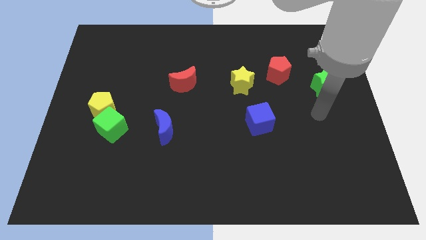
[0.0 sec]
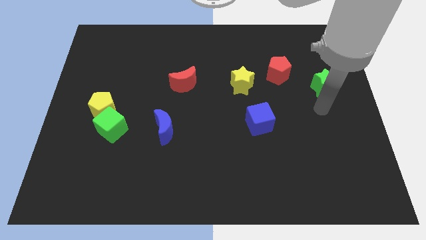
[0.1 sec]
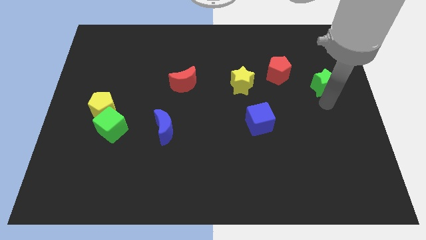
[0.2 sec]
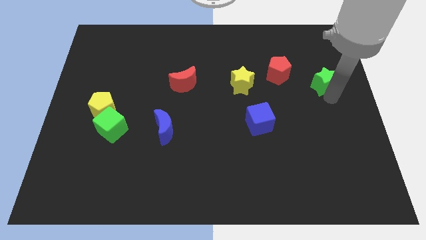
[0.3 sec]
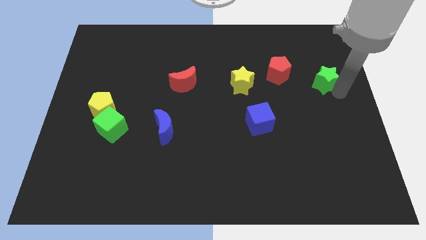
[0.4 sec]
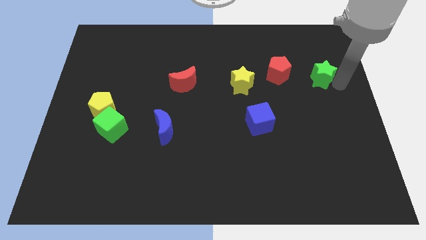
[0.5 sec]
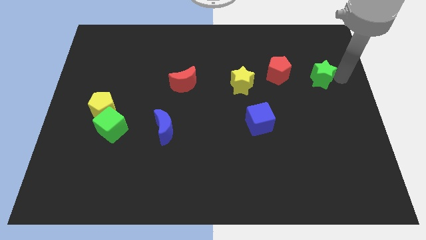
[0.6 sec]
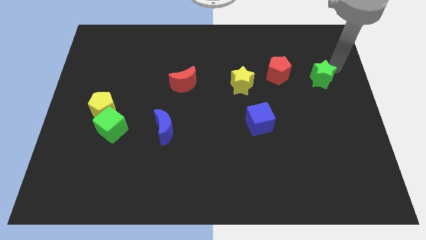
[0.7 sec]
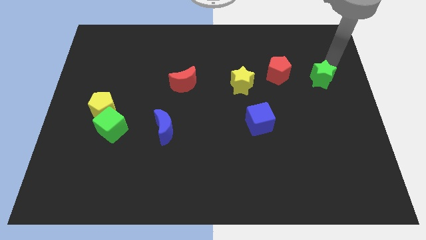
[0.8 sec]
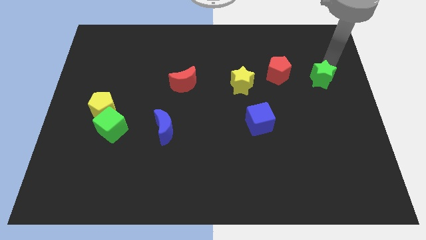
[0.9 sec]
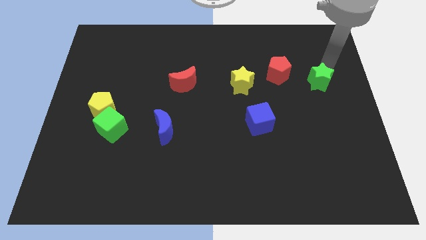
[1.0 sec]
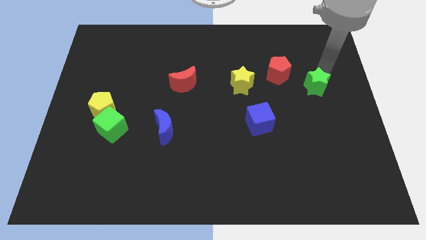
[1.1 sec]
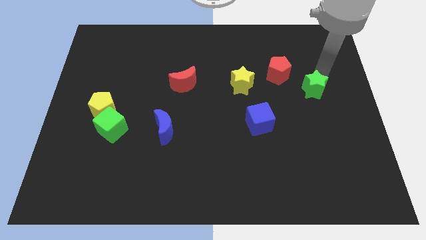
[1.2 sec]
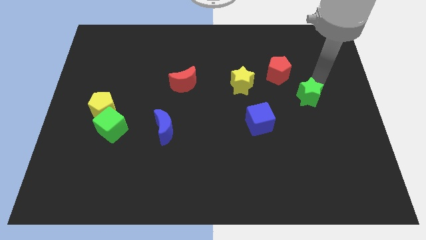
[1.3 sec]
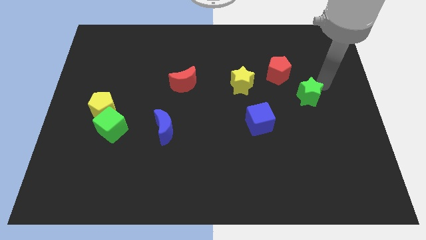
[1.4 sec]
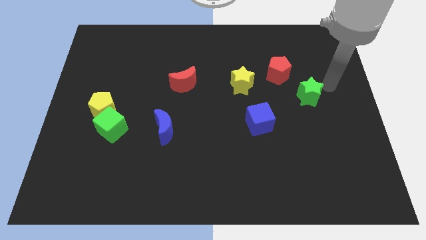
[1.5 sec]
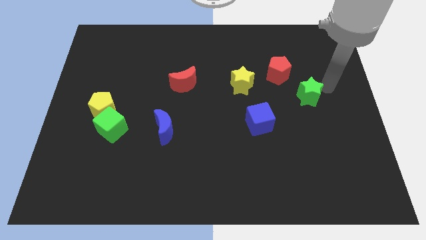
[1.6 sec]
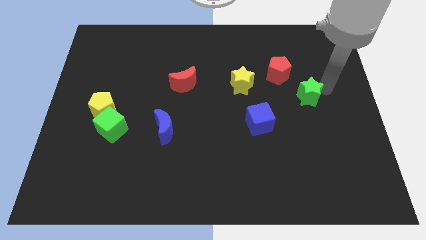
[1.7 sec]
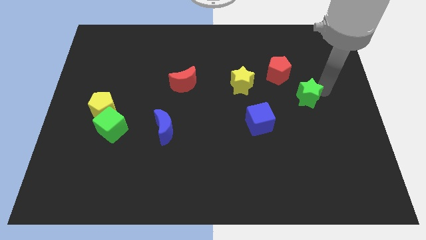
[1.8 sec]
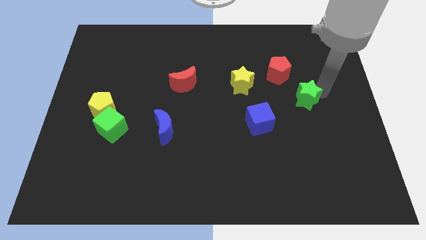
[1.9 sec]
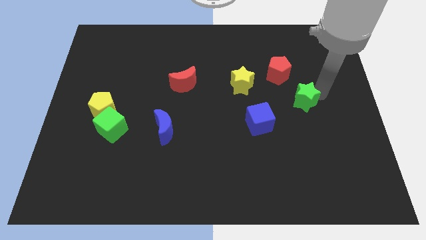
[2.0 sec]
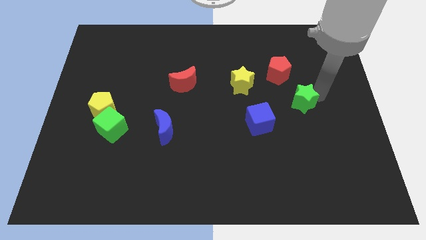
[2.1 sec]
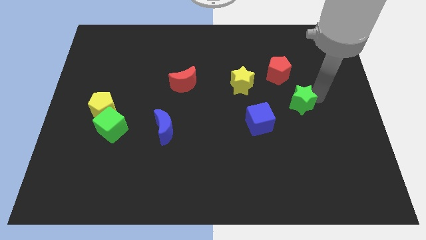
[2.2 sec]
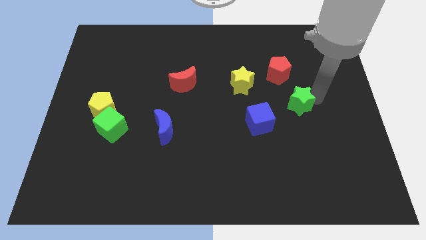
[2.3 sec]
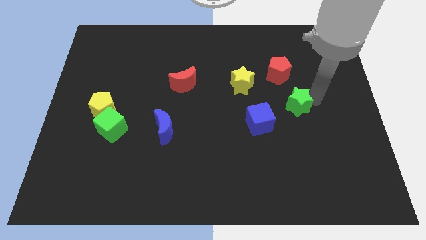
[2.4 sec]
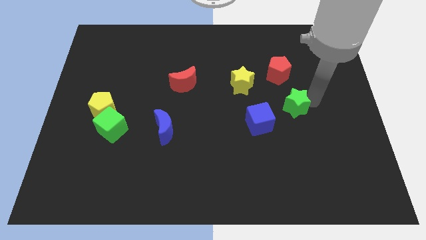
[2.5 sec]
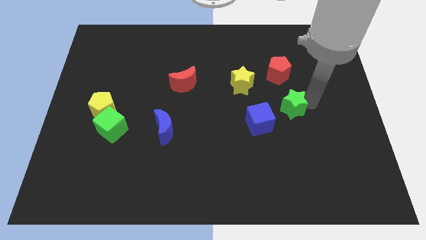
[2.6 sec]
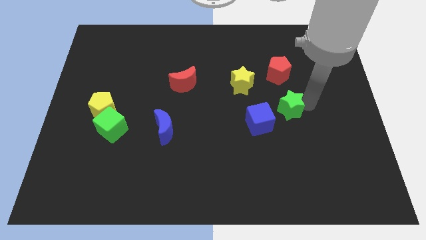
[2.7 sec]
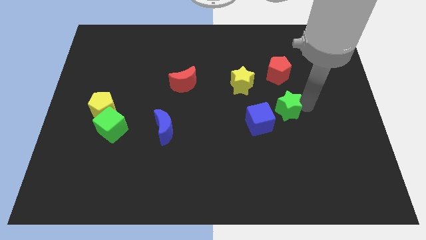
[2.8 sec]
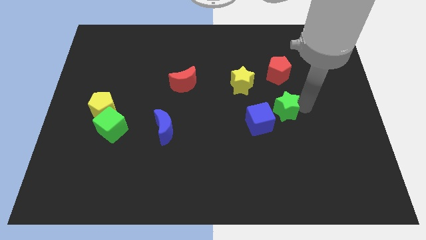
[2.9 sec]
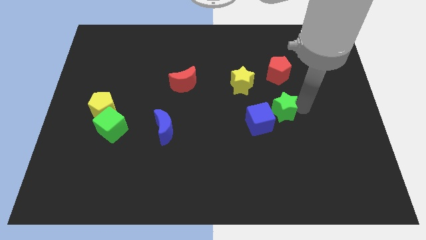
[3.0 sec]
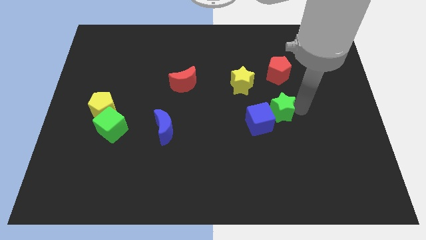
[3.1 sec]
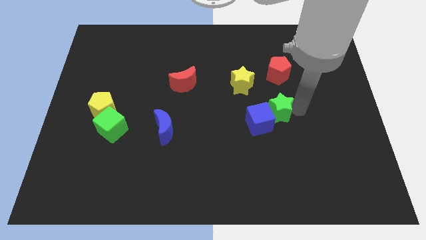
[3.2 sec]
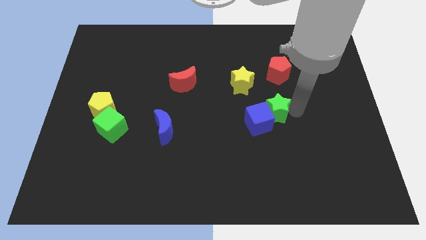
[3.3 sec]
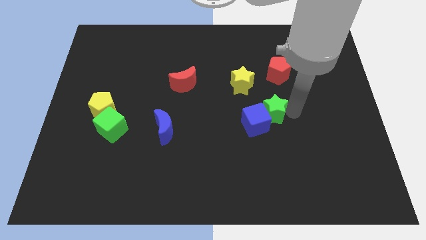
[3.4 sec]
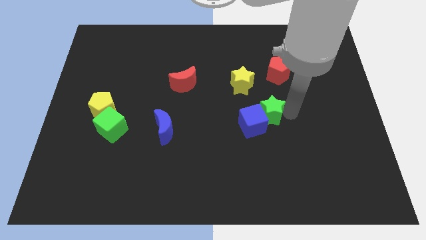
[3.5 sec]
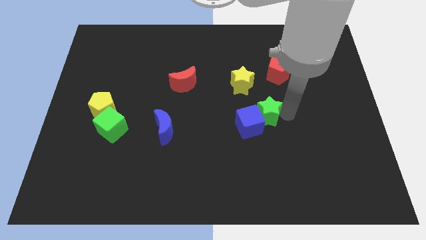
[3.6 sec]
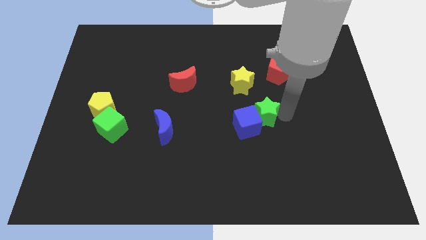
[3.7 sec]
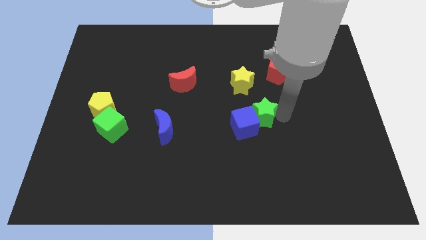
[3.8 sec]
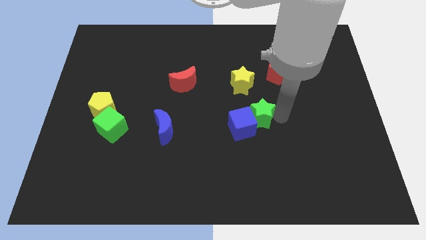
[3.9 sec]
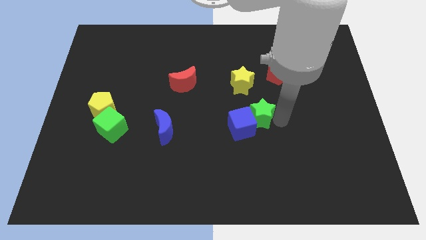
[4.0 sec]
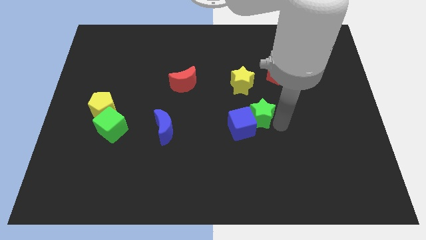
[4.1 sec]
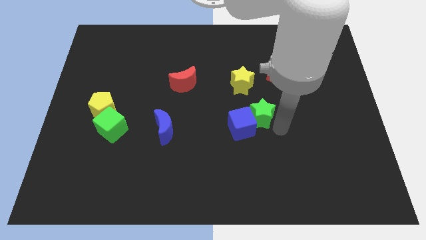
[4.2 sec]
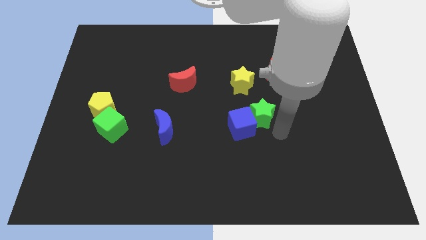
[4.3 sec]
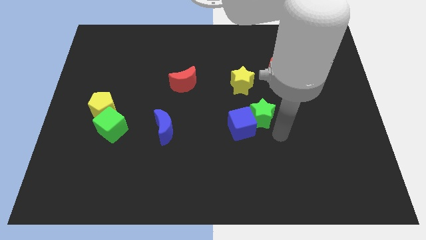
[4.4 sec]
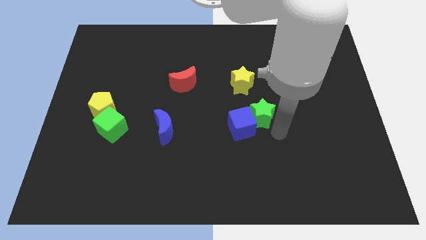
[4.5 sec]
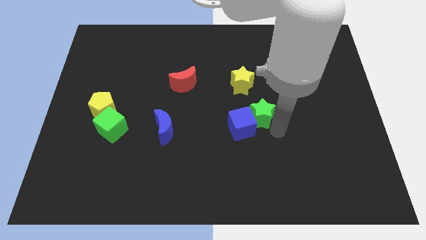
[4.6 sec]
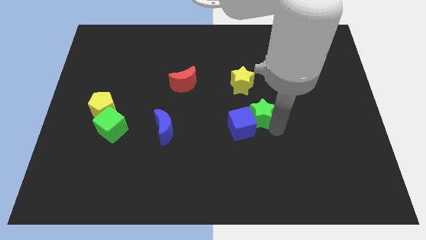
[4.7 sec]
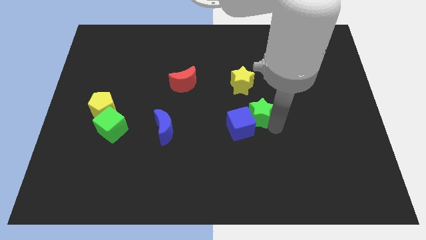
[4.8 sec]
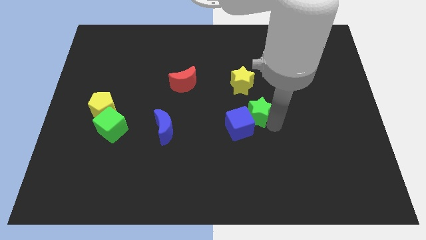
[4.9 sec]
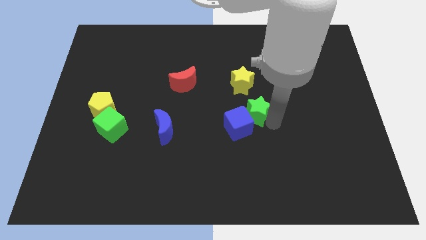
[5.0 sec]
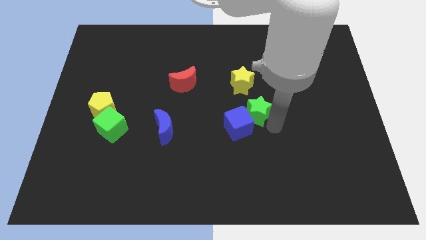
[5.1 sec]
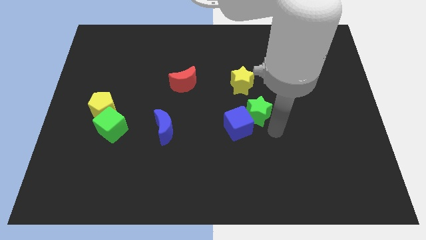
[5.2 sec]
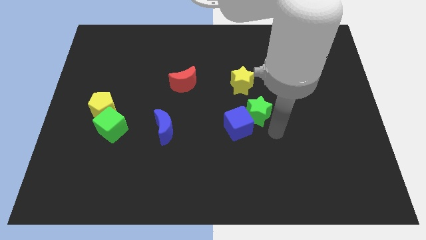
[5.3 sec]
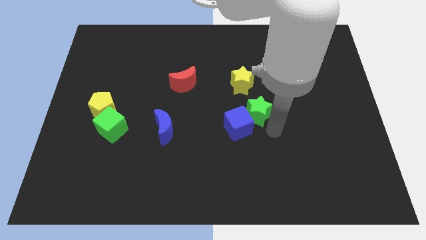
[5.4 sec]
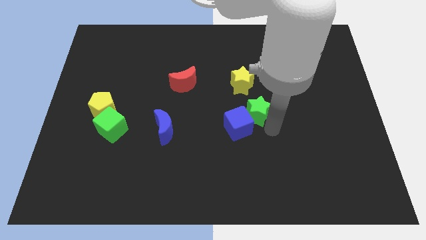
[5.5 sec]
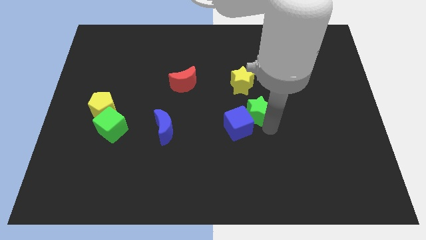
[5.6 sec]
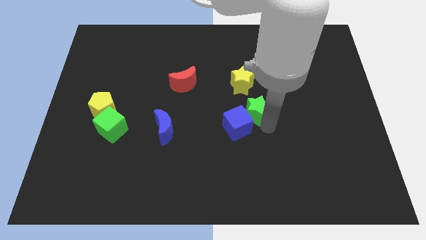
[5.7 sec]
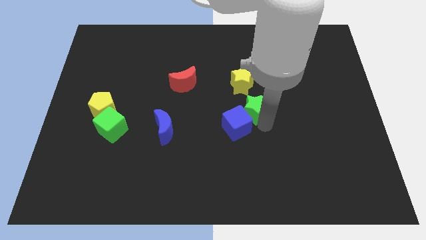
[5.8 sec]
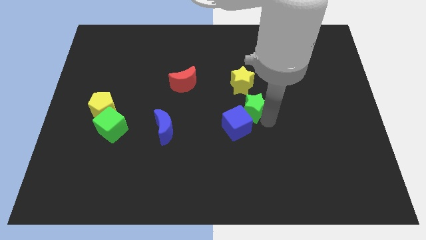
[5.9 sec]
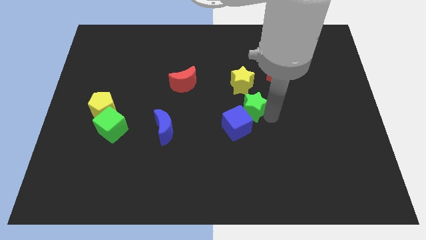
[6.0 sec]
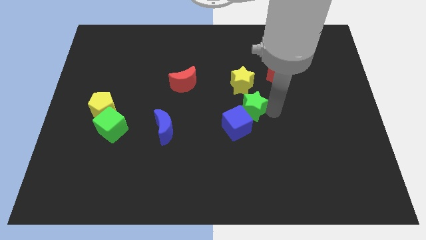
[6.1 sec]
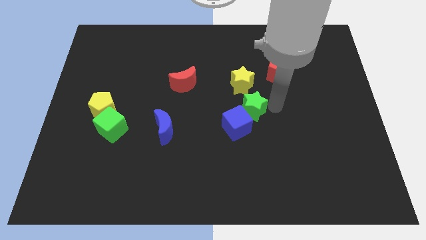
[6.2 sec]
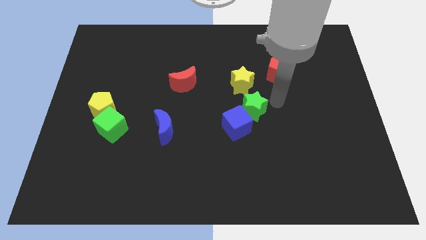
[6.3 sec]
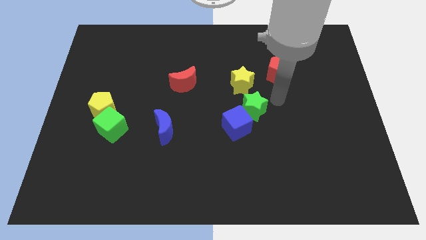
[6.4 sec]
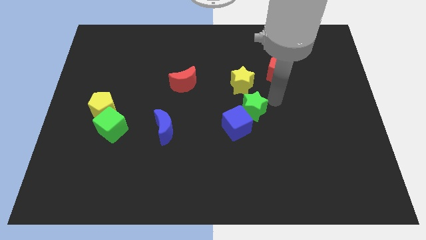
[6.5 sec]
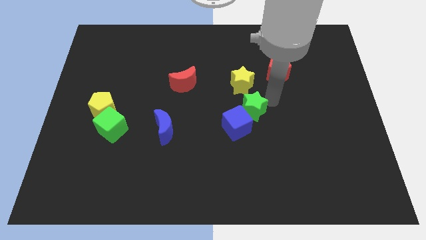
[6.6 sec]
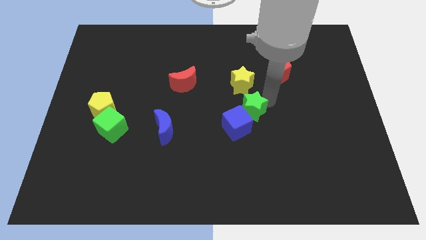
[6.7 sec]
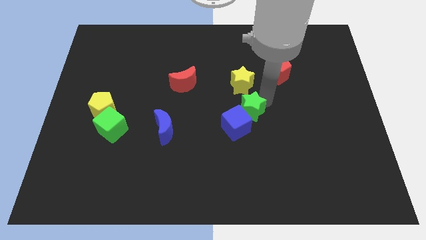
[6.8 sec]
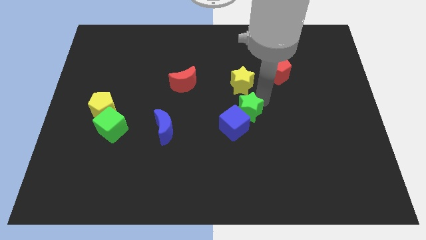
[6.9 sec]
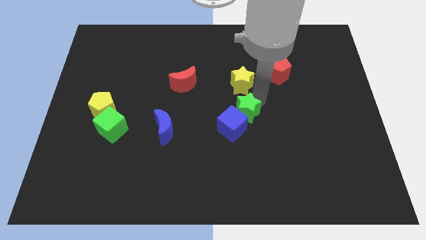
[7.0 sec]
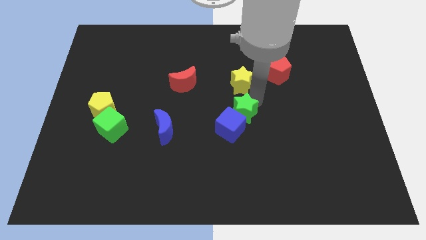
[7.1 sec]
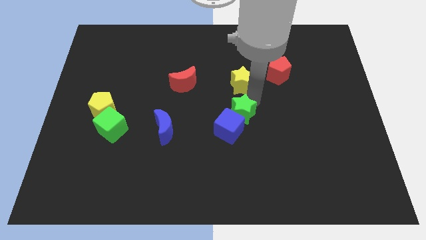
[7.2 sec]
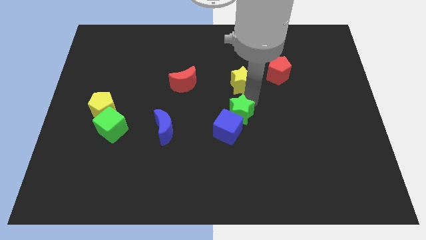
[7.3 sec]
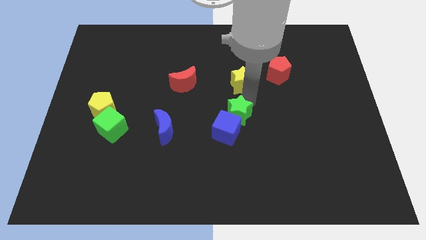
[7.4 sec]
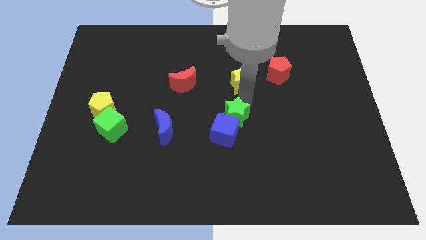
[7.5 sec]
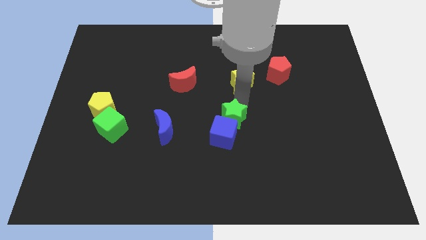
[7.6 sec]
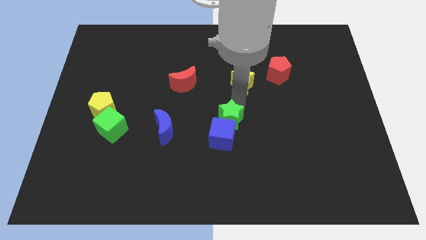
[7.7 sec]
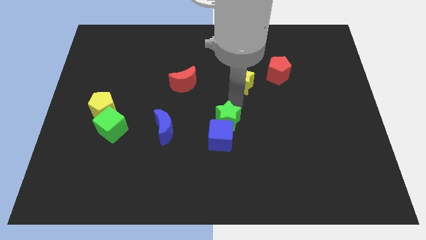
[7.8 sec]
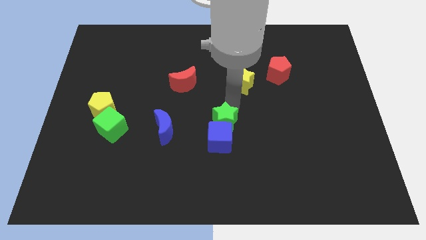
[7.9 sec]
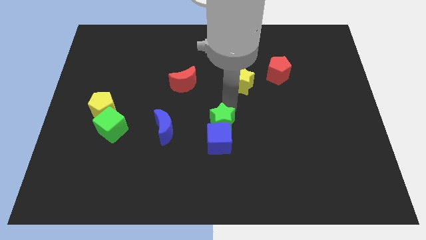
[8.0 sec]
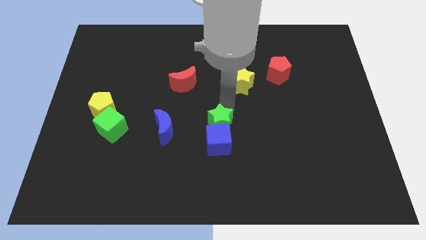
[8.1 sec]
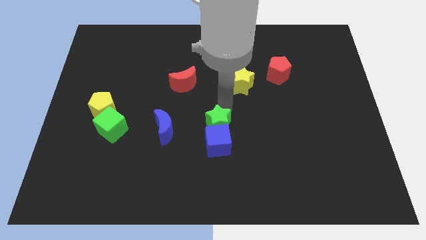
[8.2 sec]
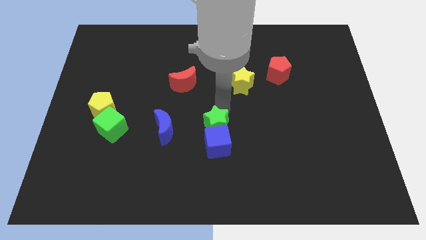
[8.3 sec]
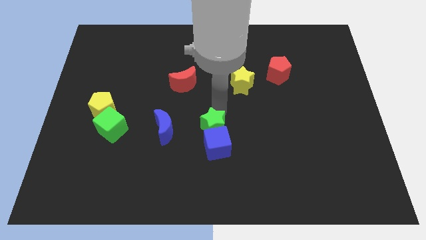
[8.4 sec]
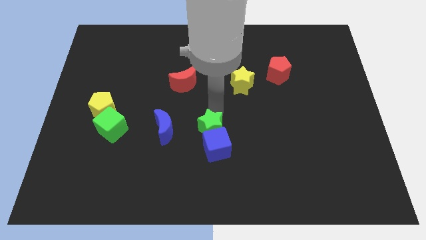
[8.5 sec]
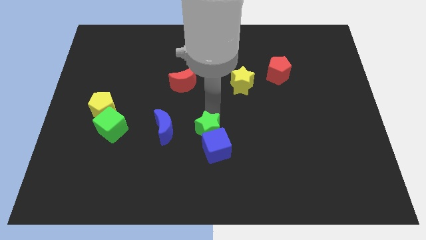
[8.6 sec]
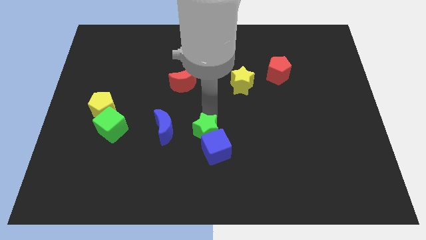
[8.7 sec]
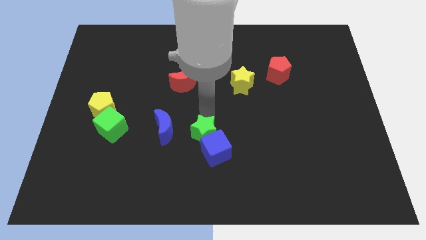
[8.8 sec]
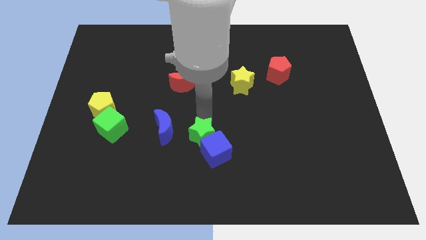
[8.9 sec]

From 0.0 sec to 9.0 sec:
move the green star to the bottom right side of the blue moon
